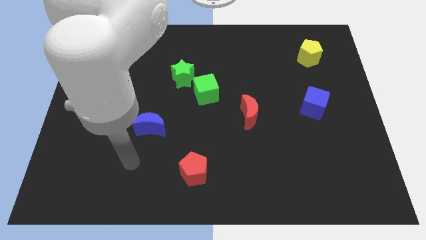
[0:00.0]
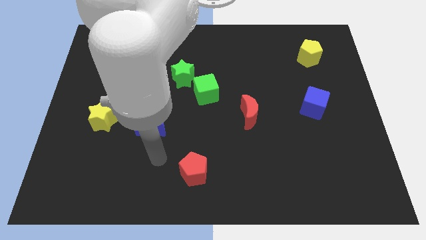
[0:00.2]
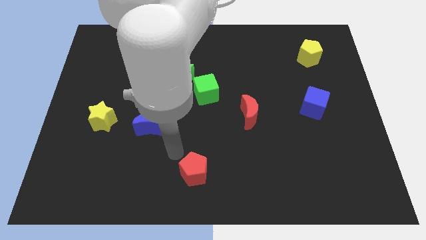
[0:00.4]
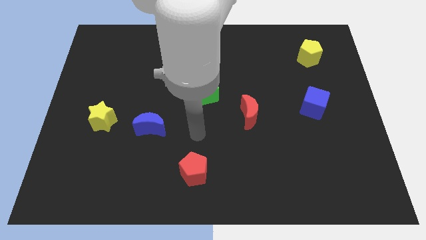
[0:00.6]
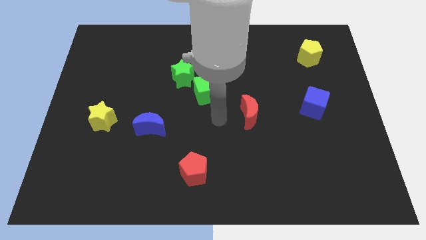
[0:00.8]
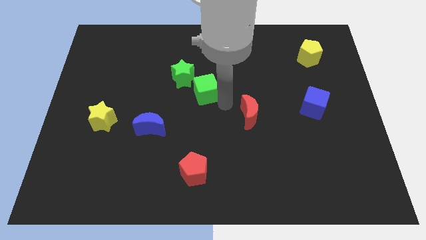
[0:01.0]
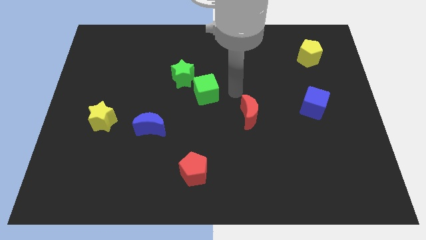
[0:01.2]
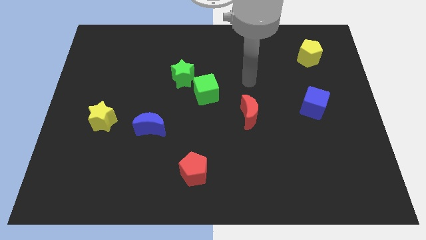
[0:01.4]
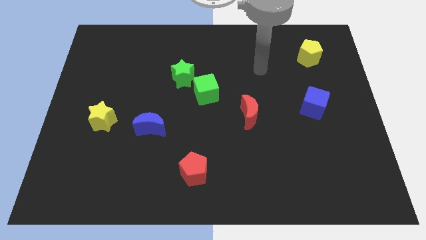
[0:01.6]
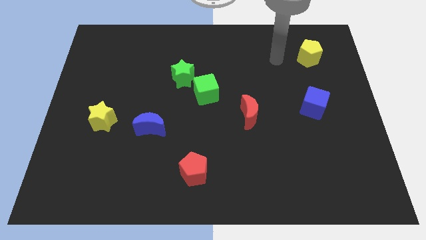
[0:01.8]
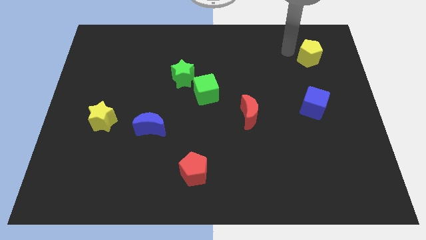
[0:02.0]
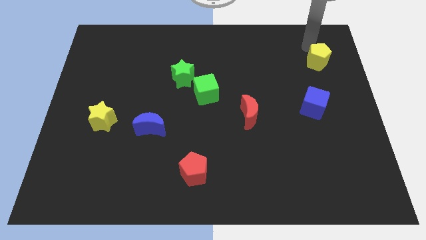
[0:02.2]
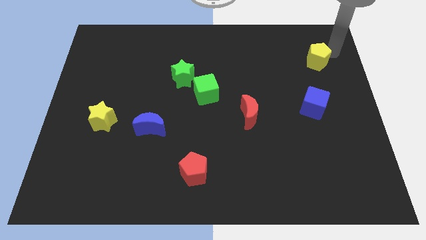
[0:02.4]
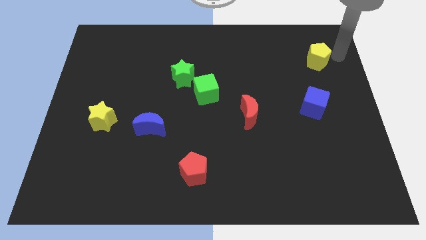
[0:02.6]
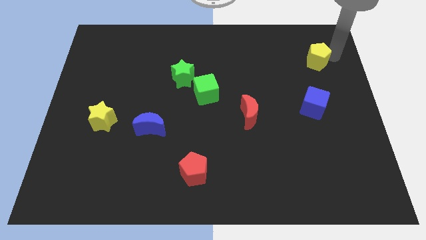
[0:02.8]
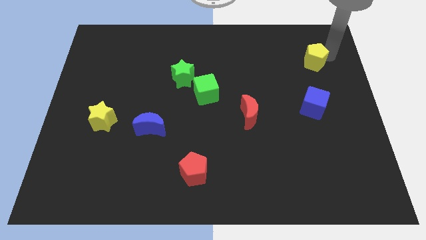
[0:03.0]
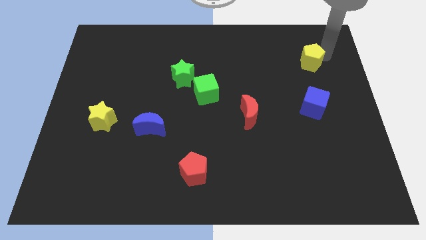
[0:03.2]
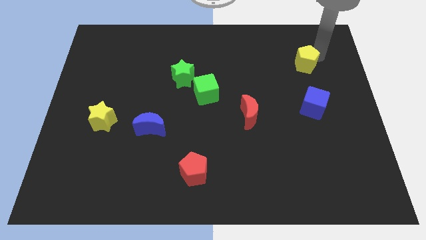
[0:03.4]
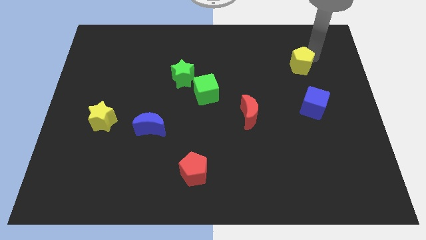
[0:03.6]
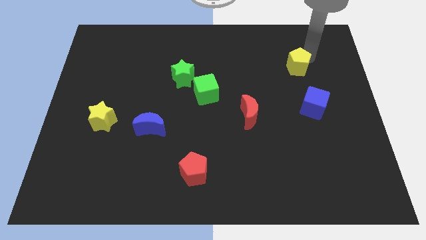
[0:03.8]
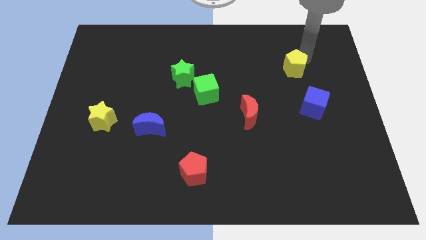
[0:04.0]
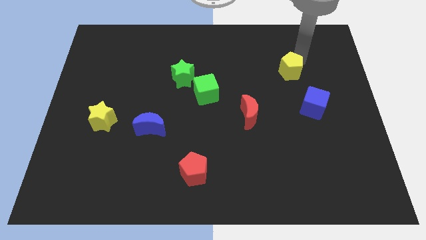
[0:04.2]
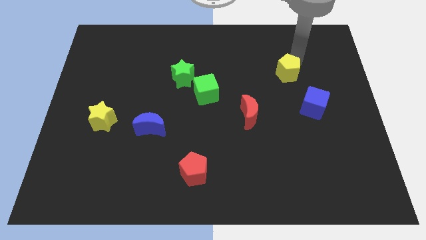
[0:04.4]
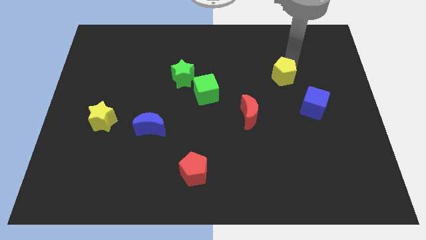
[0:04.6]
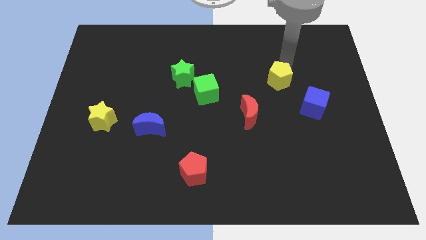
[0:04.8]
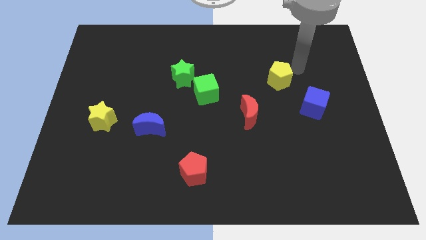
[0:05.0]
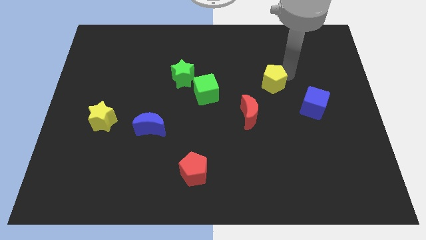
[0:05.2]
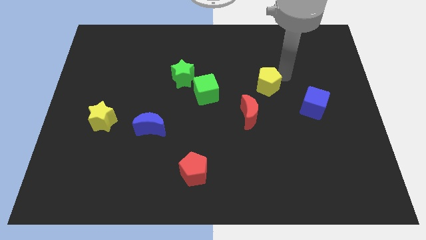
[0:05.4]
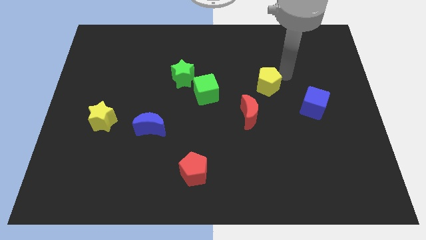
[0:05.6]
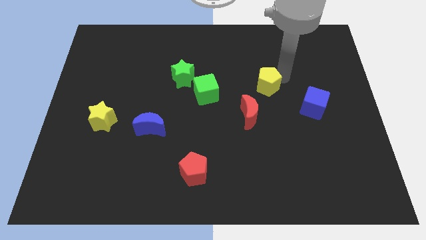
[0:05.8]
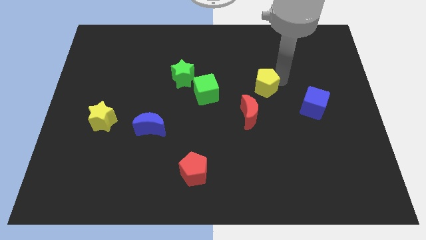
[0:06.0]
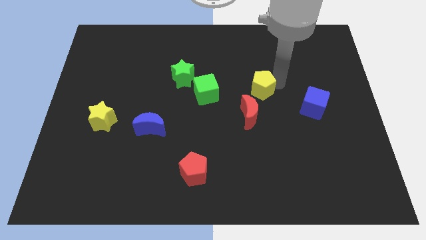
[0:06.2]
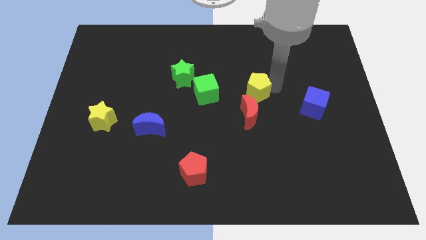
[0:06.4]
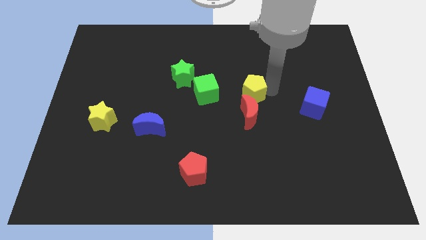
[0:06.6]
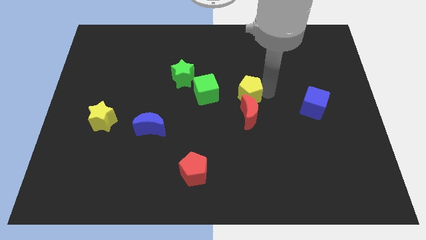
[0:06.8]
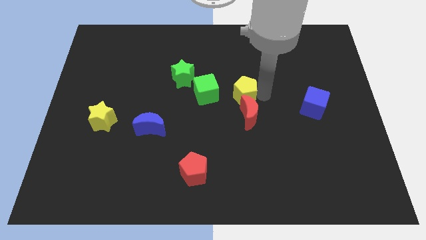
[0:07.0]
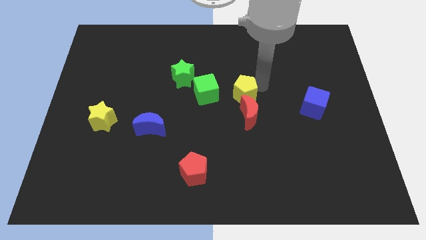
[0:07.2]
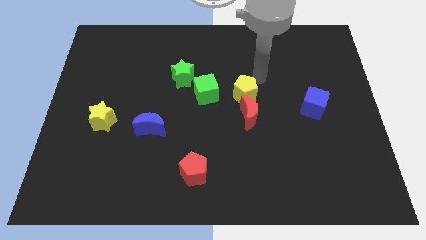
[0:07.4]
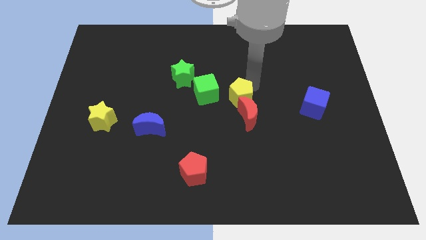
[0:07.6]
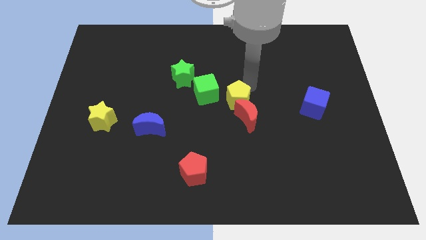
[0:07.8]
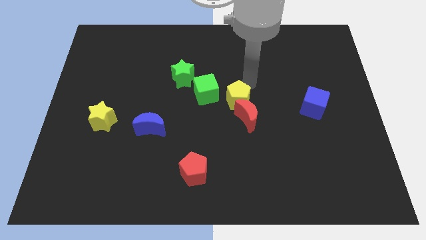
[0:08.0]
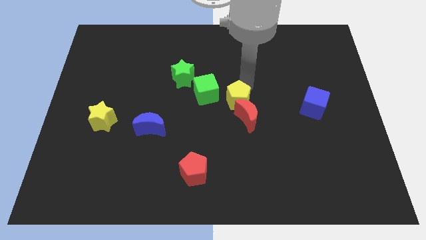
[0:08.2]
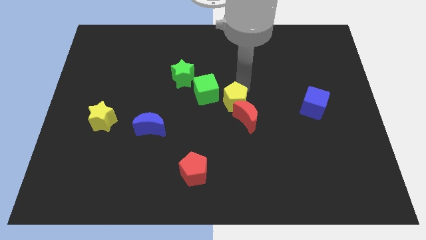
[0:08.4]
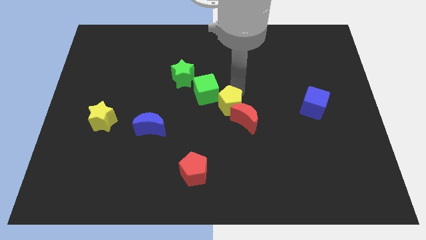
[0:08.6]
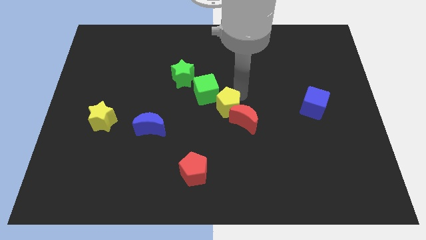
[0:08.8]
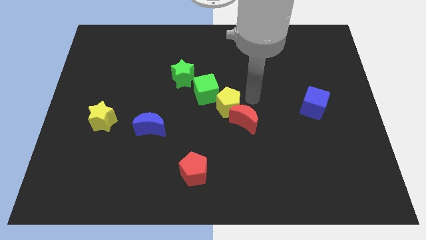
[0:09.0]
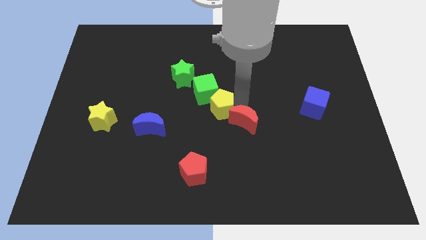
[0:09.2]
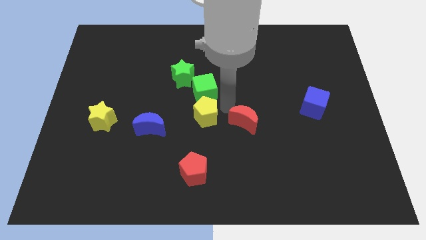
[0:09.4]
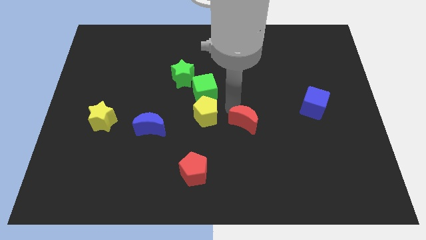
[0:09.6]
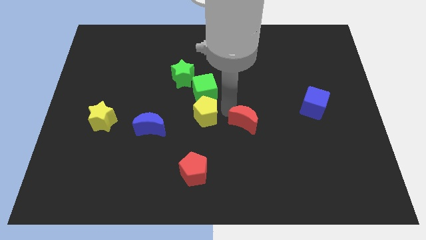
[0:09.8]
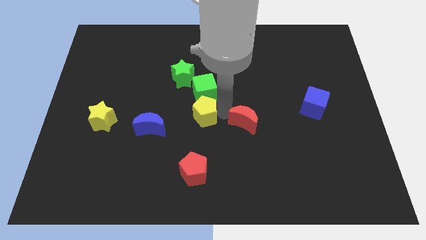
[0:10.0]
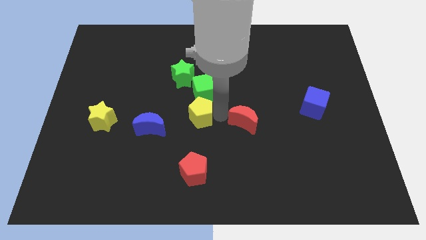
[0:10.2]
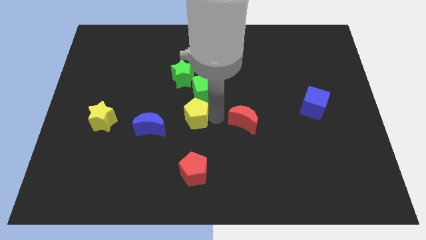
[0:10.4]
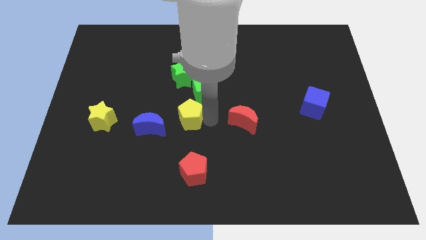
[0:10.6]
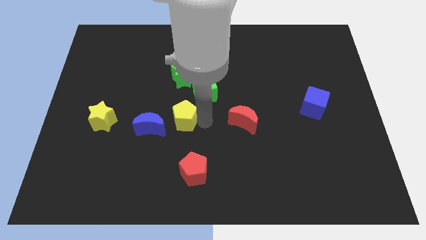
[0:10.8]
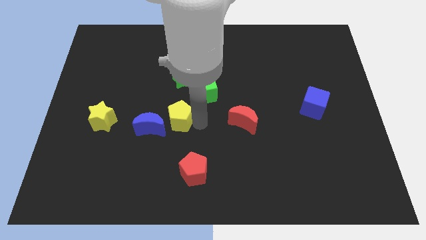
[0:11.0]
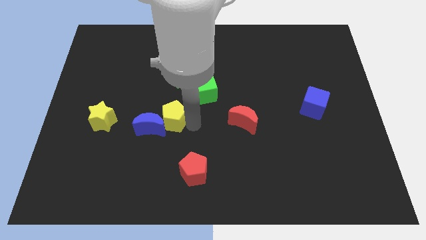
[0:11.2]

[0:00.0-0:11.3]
move the yellow pentagon right of the yellow star
